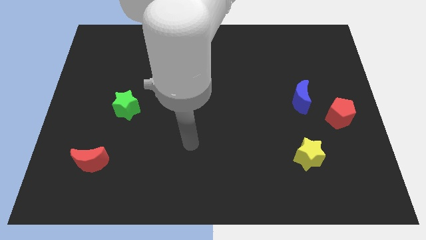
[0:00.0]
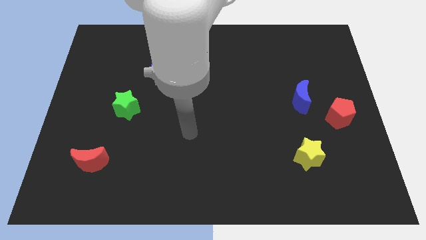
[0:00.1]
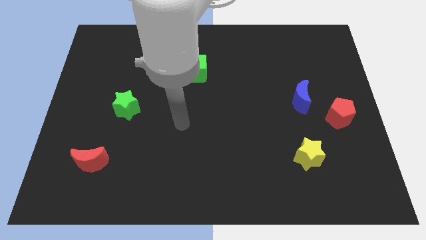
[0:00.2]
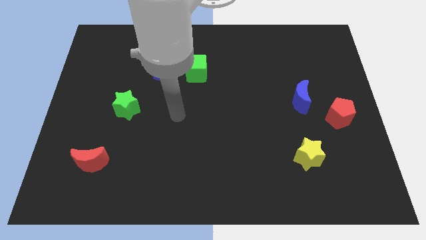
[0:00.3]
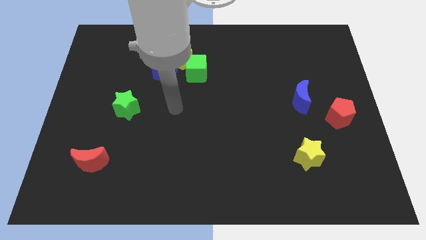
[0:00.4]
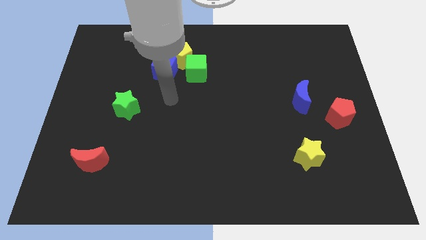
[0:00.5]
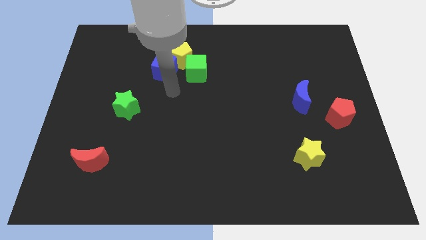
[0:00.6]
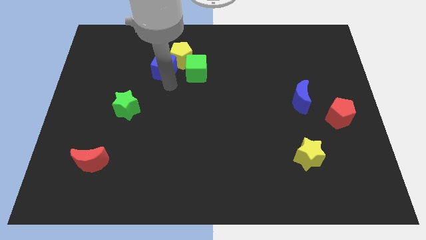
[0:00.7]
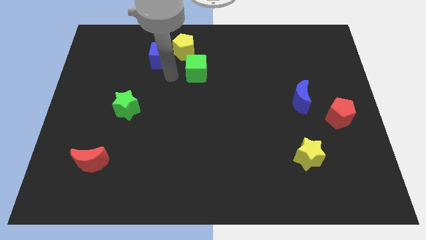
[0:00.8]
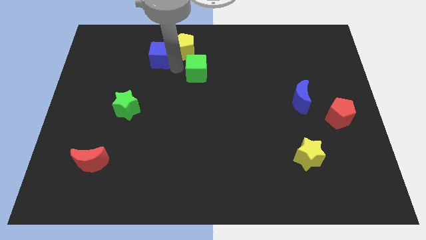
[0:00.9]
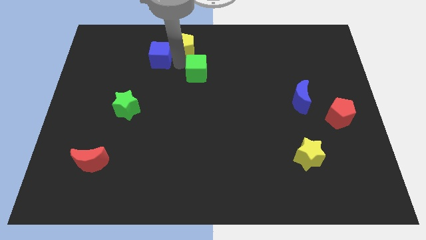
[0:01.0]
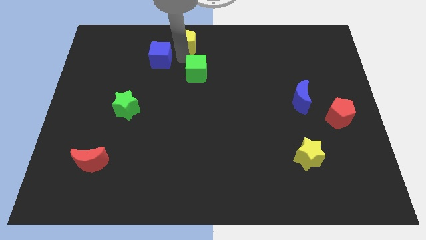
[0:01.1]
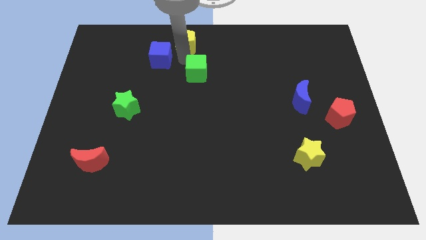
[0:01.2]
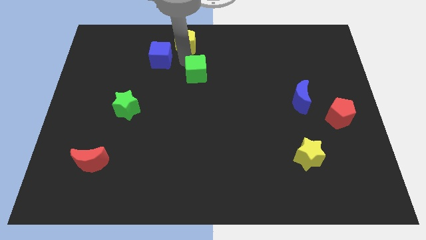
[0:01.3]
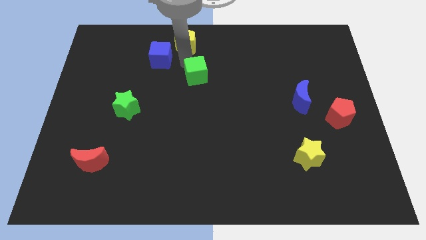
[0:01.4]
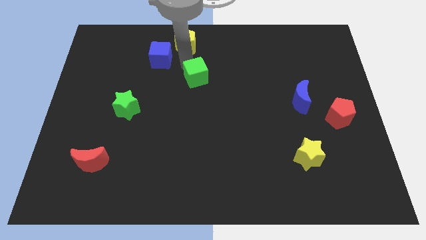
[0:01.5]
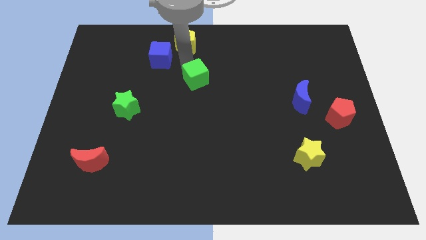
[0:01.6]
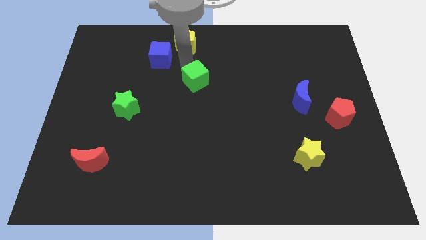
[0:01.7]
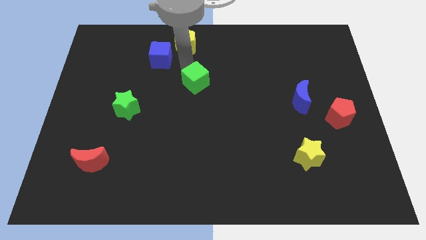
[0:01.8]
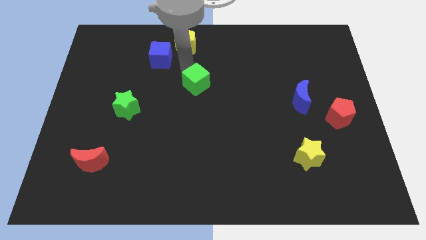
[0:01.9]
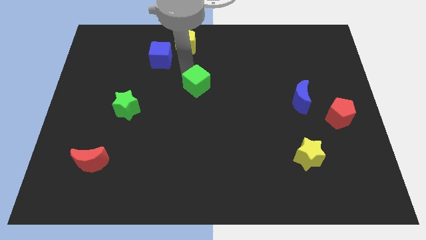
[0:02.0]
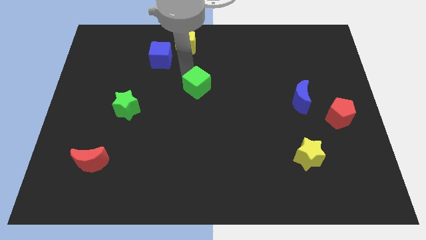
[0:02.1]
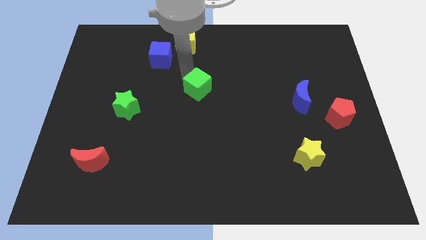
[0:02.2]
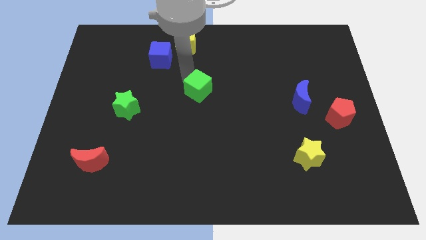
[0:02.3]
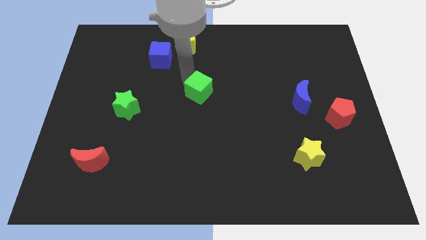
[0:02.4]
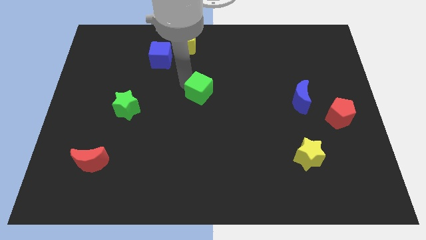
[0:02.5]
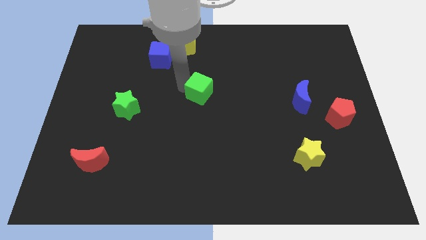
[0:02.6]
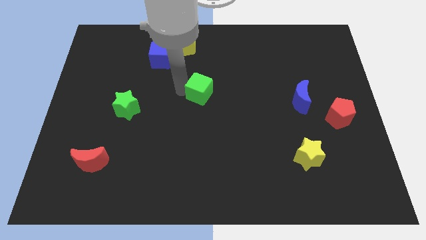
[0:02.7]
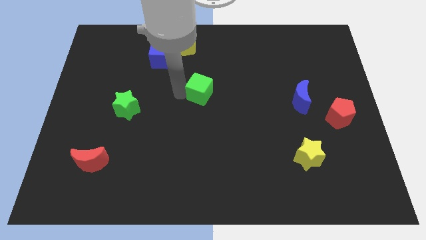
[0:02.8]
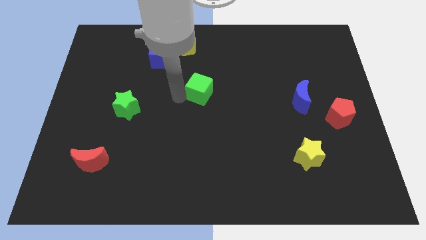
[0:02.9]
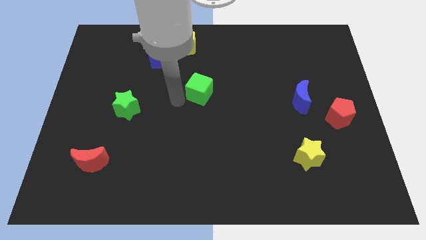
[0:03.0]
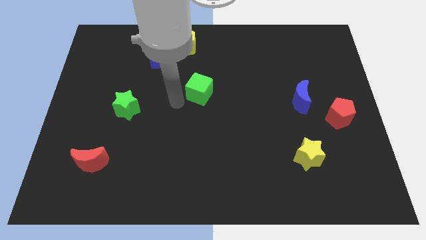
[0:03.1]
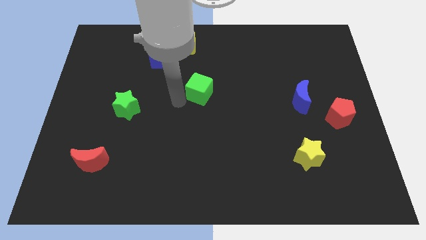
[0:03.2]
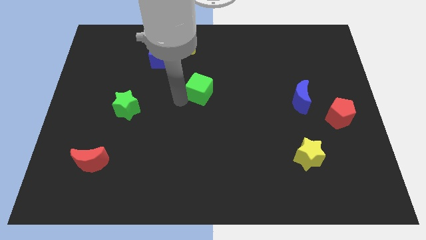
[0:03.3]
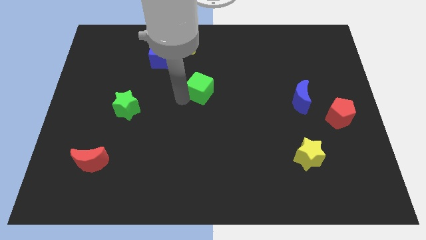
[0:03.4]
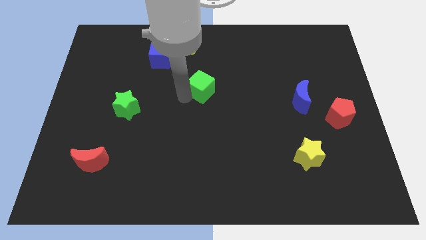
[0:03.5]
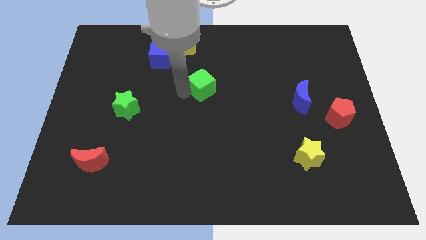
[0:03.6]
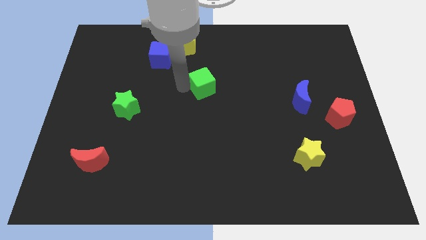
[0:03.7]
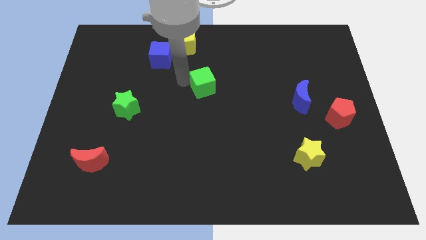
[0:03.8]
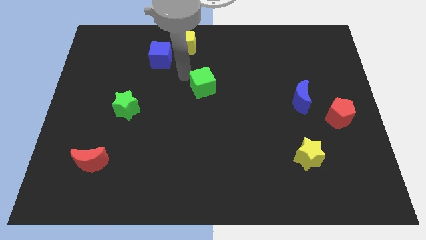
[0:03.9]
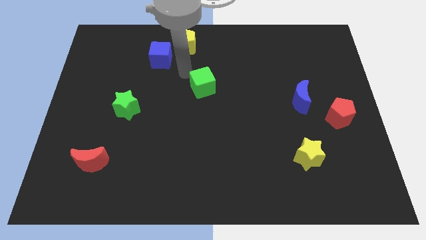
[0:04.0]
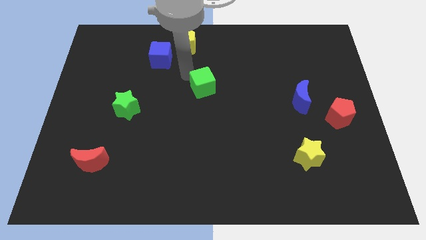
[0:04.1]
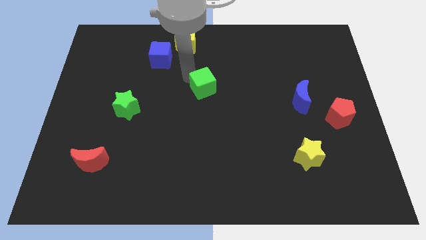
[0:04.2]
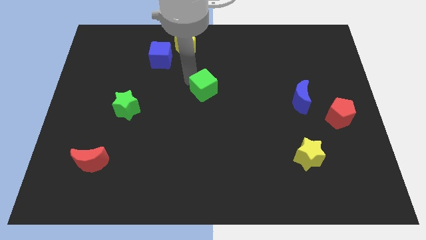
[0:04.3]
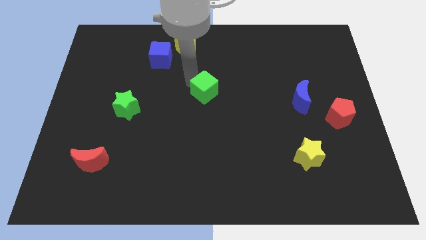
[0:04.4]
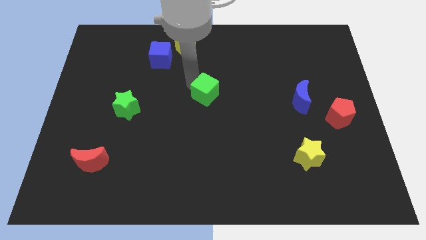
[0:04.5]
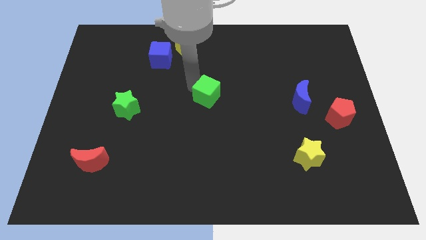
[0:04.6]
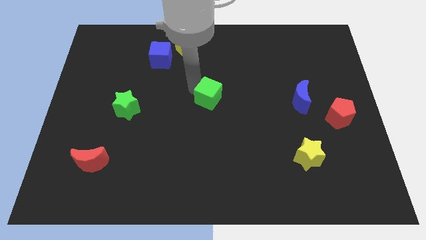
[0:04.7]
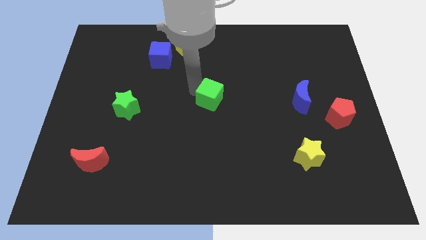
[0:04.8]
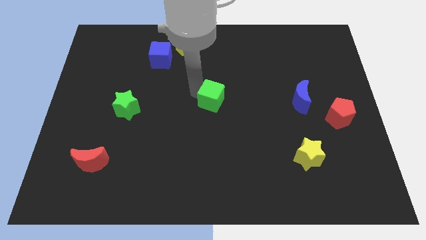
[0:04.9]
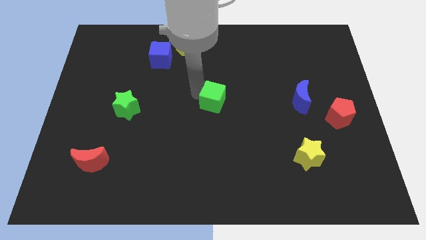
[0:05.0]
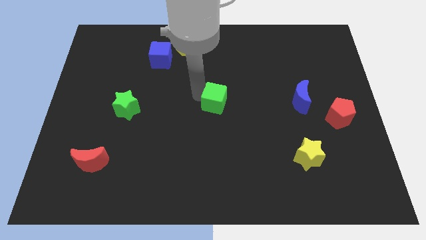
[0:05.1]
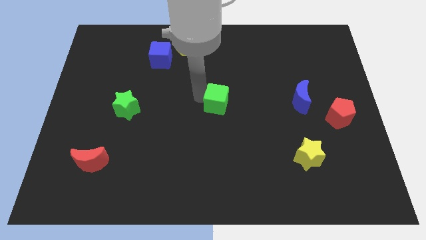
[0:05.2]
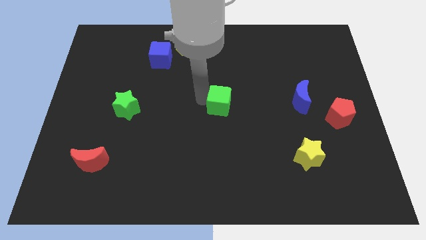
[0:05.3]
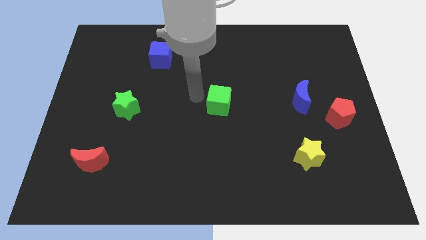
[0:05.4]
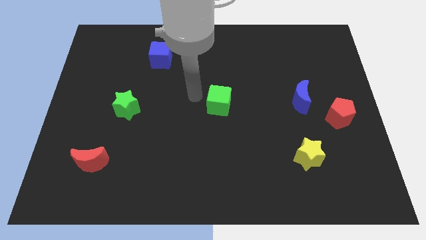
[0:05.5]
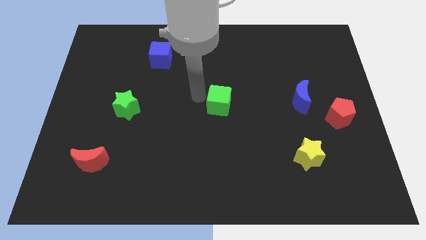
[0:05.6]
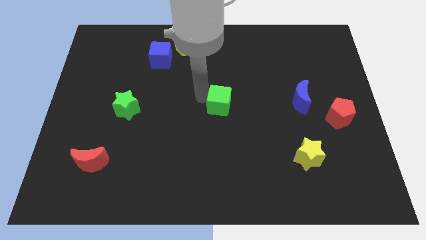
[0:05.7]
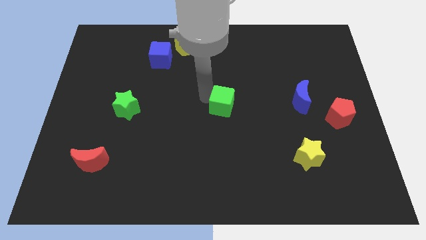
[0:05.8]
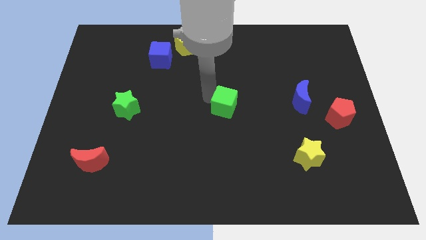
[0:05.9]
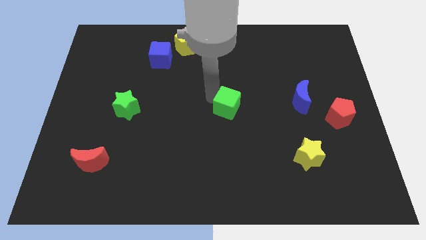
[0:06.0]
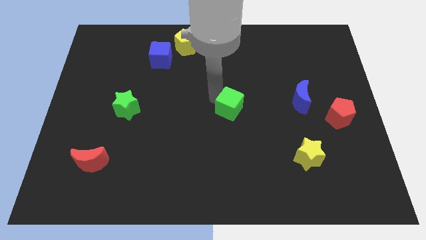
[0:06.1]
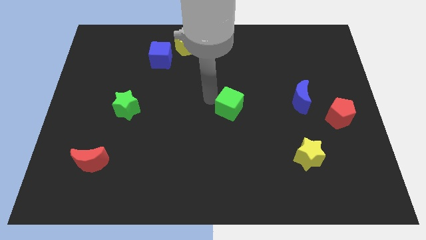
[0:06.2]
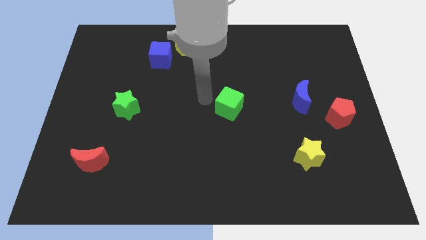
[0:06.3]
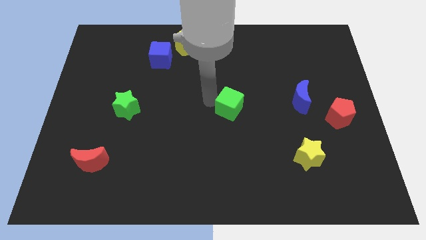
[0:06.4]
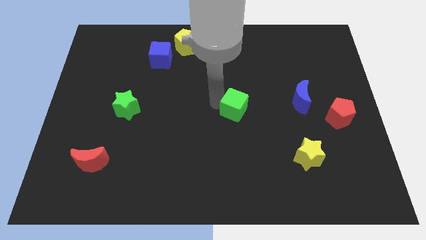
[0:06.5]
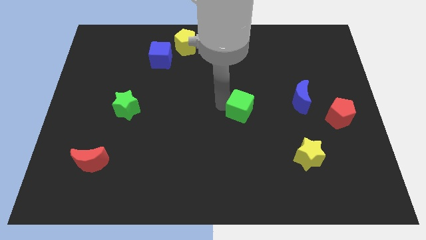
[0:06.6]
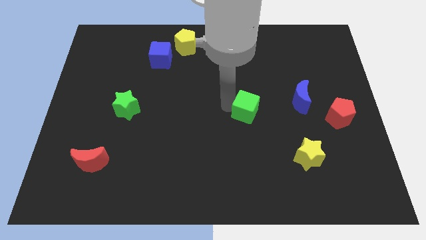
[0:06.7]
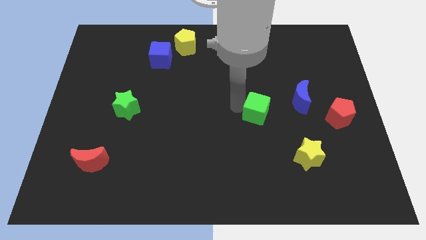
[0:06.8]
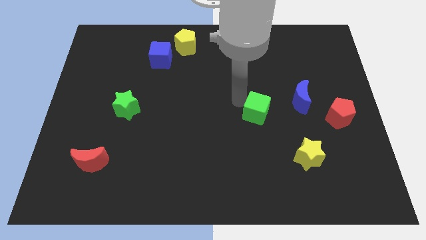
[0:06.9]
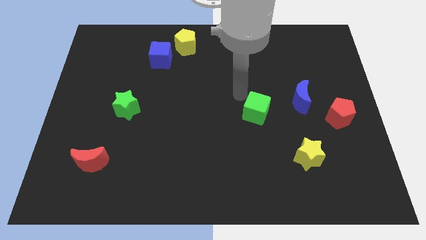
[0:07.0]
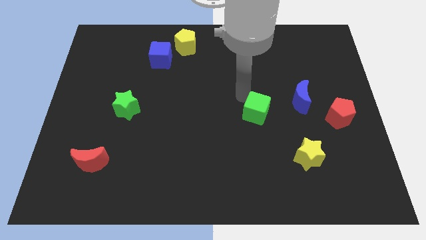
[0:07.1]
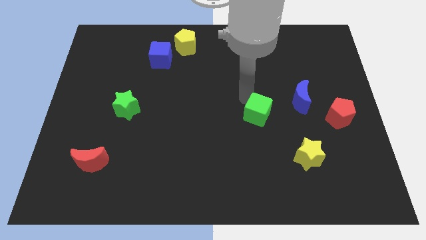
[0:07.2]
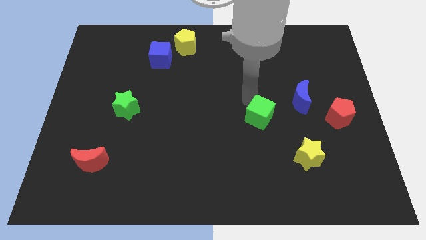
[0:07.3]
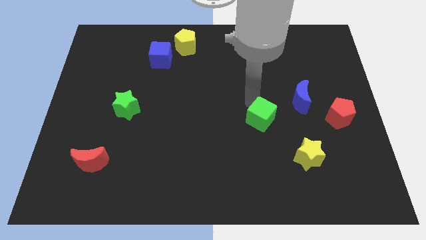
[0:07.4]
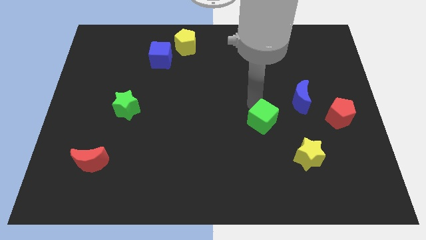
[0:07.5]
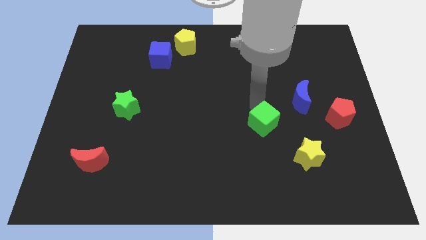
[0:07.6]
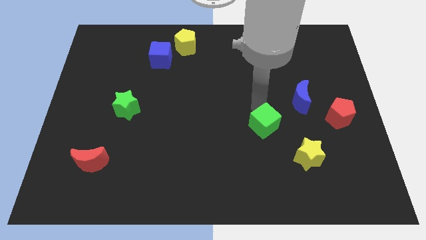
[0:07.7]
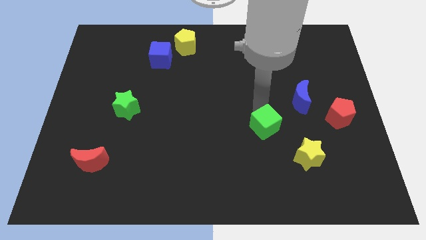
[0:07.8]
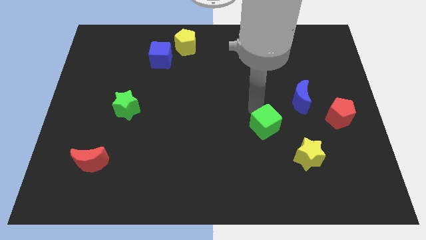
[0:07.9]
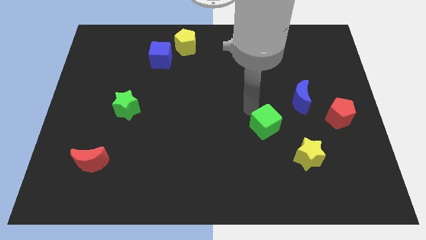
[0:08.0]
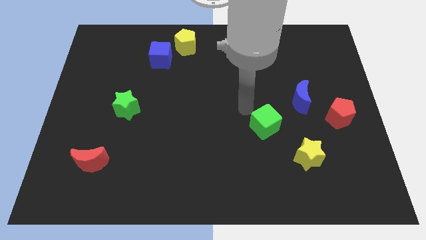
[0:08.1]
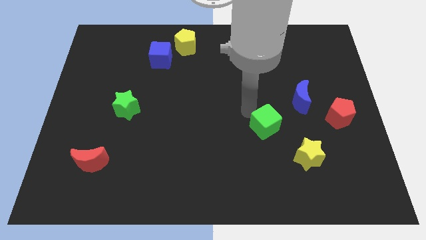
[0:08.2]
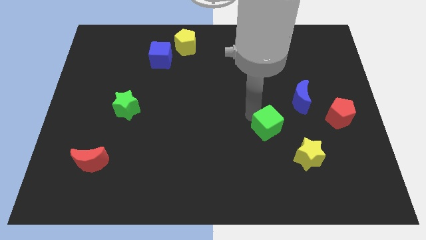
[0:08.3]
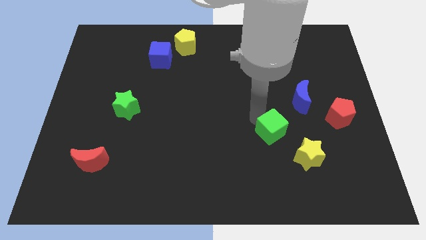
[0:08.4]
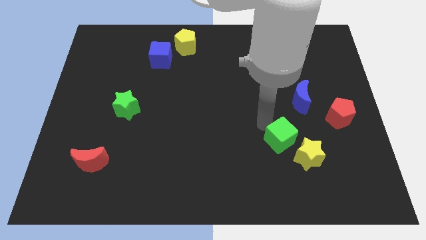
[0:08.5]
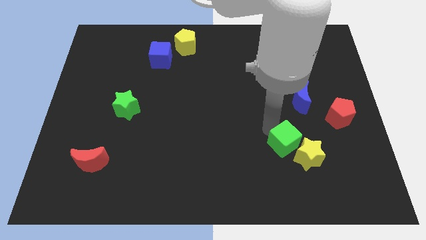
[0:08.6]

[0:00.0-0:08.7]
push the green cube to the yellow star
